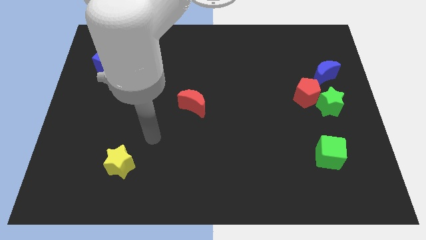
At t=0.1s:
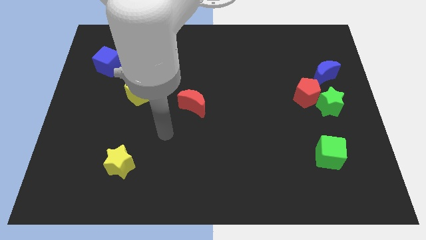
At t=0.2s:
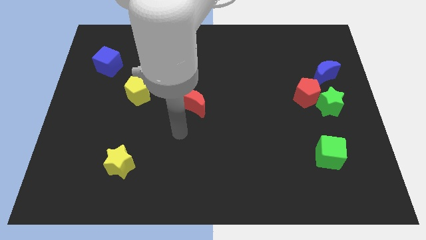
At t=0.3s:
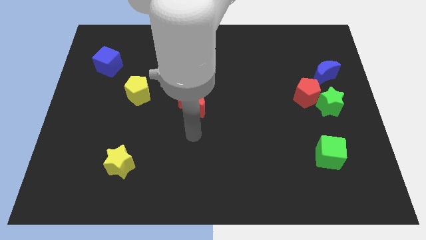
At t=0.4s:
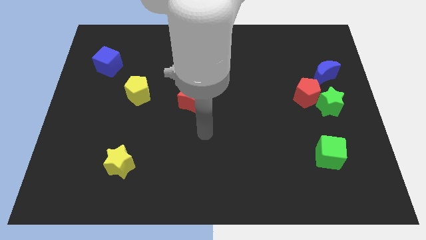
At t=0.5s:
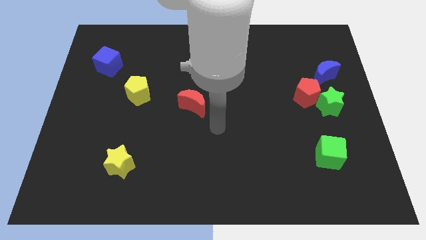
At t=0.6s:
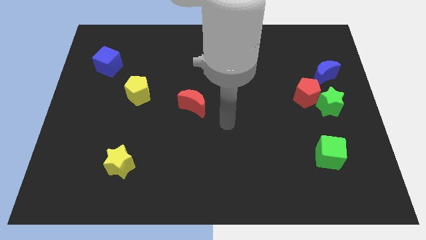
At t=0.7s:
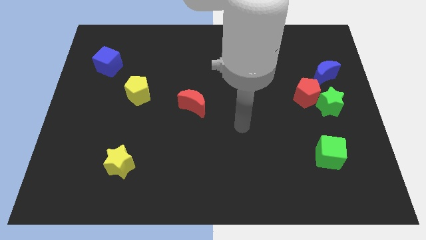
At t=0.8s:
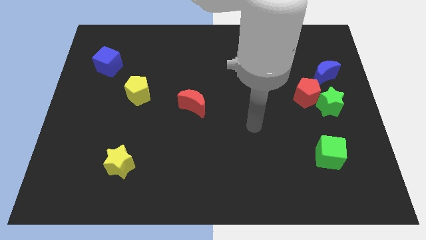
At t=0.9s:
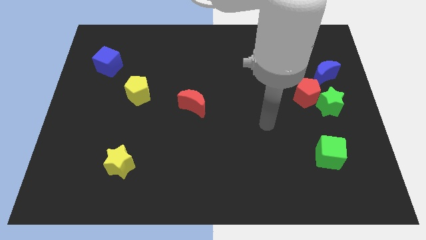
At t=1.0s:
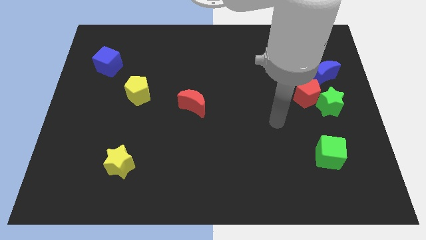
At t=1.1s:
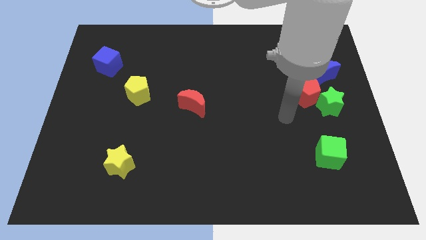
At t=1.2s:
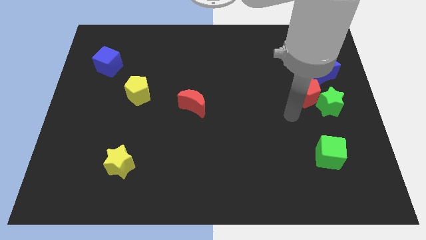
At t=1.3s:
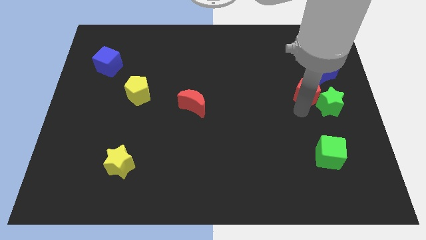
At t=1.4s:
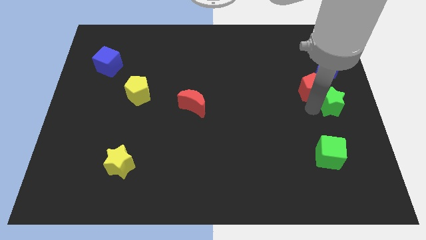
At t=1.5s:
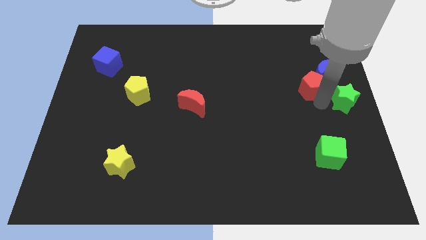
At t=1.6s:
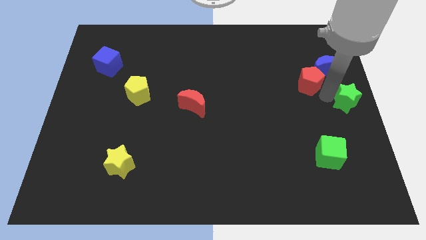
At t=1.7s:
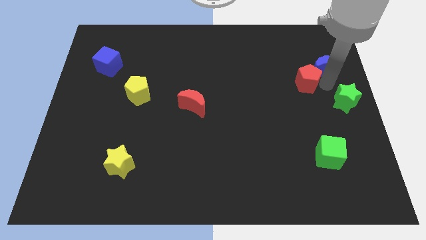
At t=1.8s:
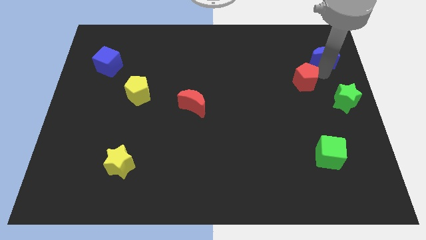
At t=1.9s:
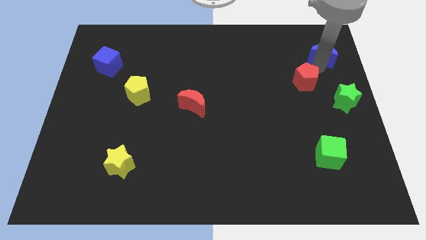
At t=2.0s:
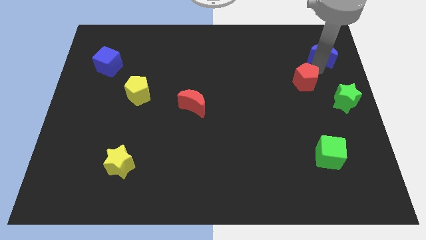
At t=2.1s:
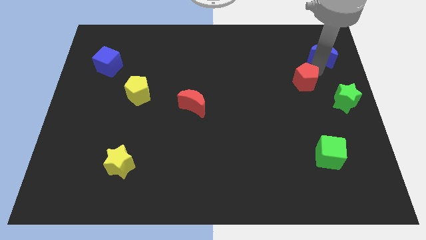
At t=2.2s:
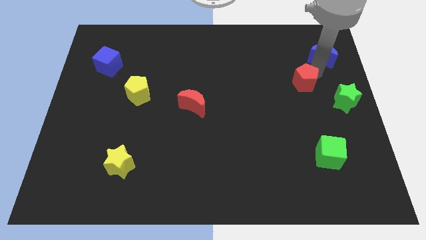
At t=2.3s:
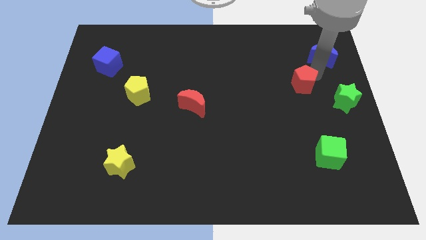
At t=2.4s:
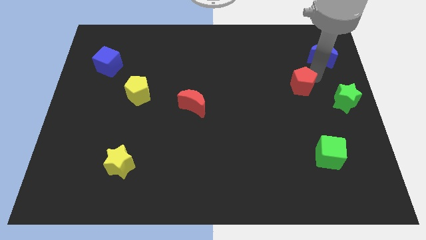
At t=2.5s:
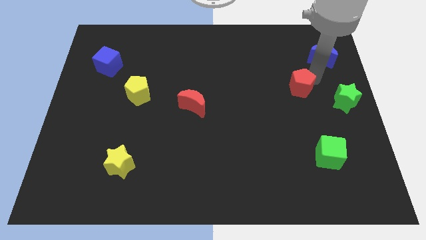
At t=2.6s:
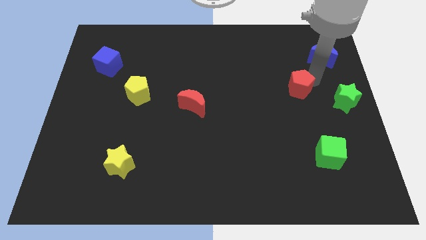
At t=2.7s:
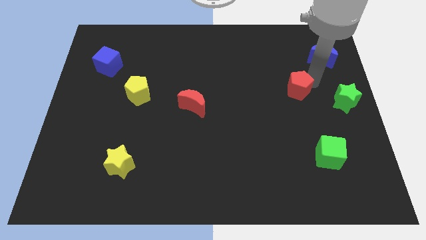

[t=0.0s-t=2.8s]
separate the red pentagon from the green star and blue moon

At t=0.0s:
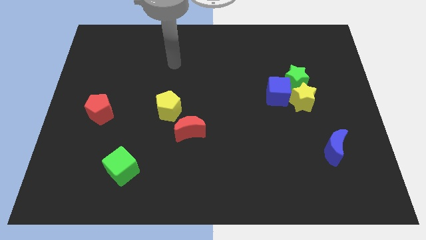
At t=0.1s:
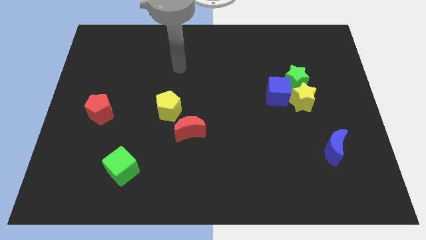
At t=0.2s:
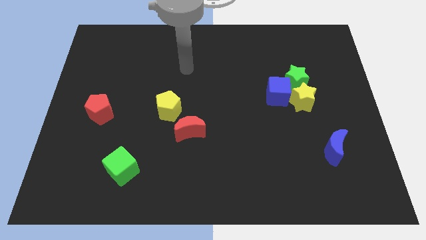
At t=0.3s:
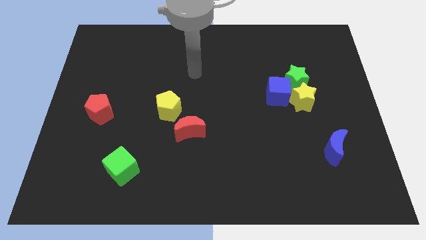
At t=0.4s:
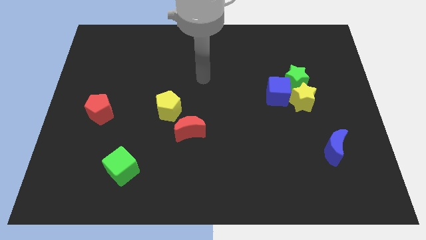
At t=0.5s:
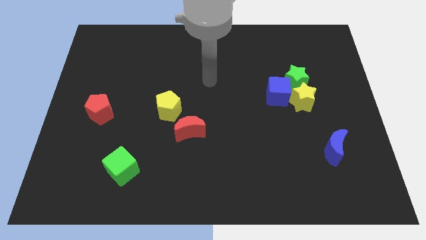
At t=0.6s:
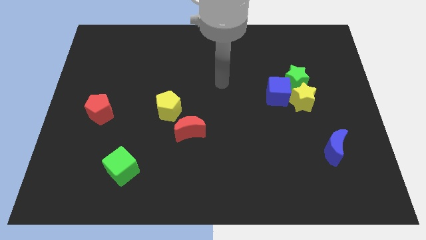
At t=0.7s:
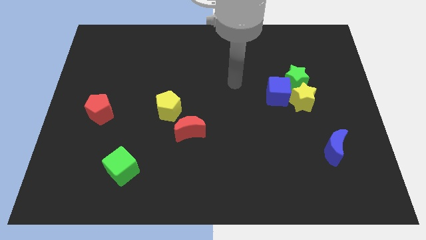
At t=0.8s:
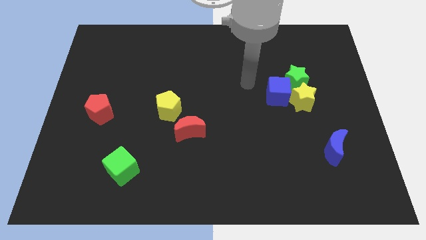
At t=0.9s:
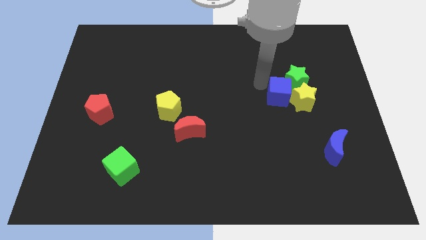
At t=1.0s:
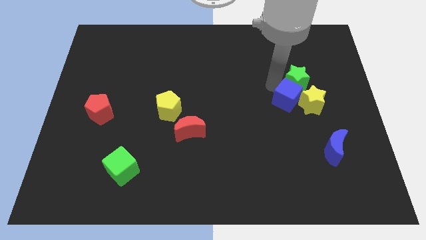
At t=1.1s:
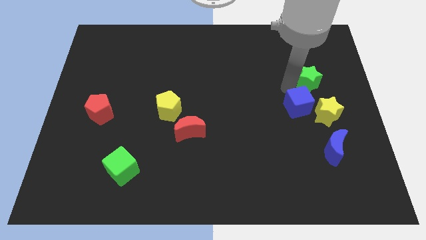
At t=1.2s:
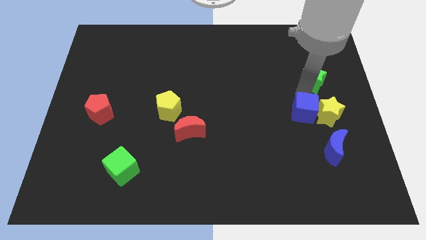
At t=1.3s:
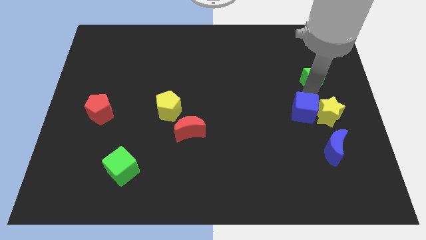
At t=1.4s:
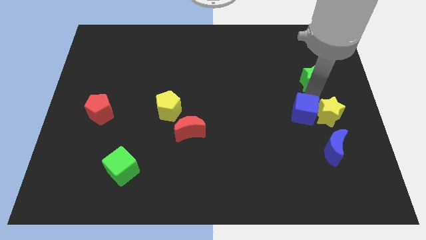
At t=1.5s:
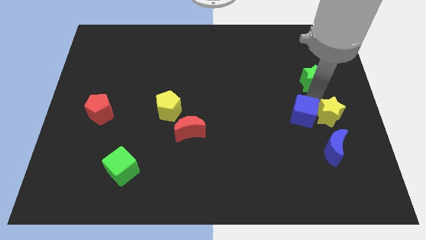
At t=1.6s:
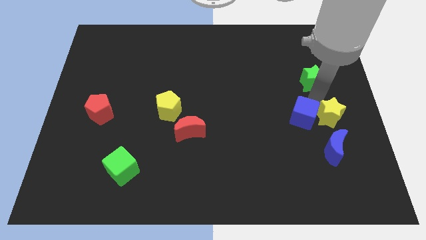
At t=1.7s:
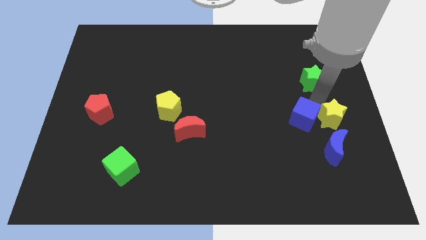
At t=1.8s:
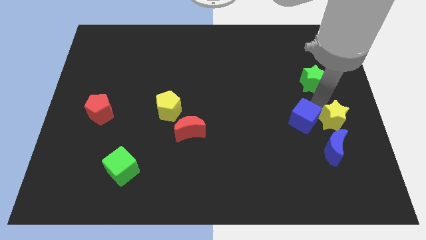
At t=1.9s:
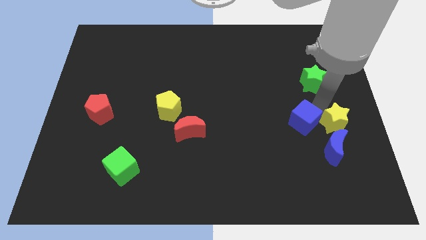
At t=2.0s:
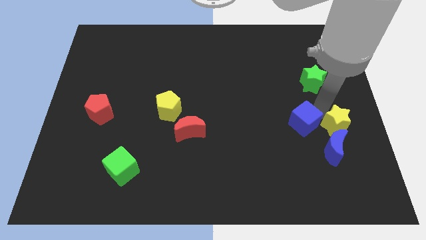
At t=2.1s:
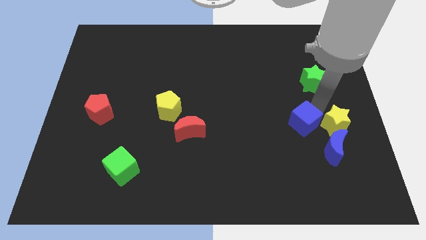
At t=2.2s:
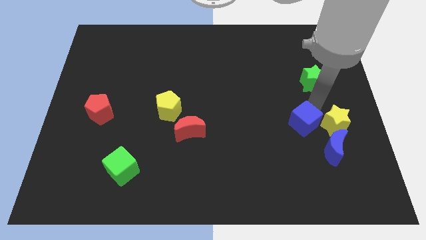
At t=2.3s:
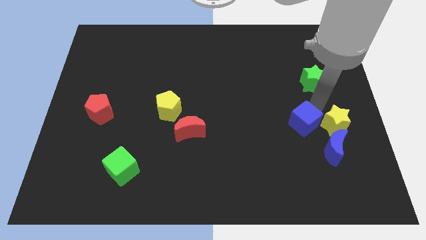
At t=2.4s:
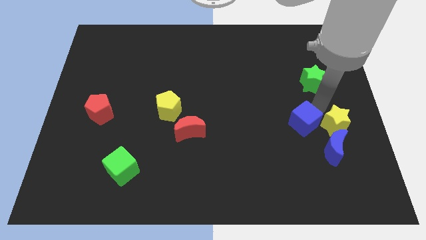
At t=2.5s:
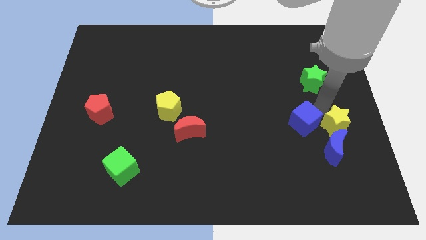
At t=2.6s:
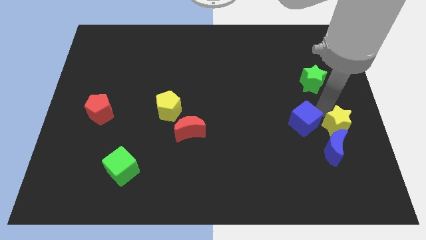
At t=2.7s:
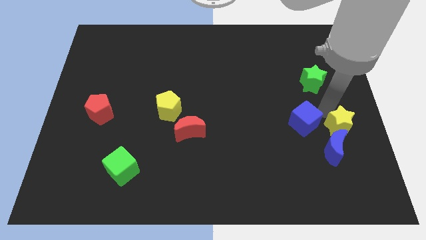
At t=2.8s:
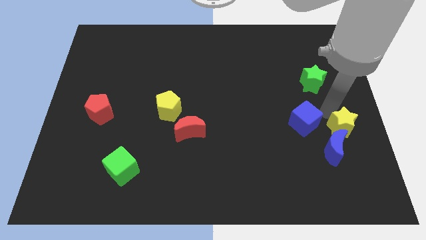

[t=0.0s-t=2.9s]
move the yellow star away from the blue cube and green star

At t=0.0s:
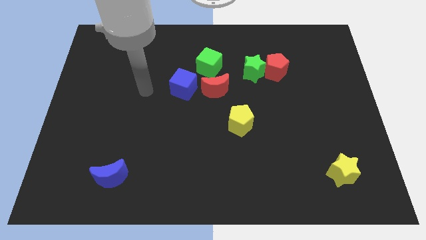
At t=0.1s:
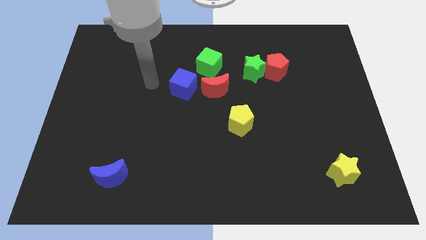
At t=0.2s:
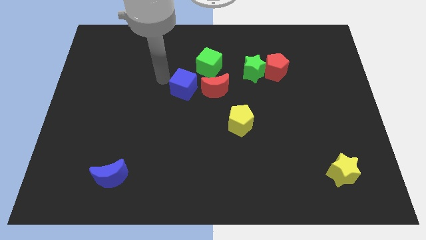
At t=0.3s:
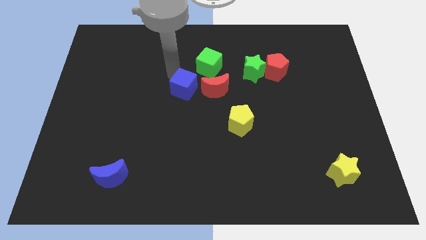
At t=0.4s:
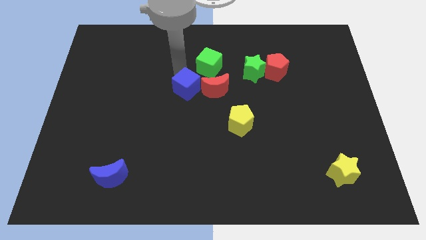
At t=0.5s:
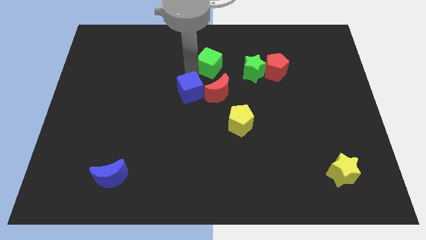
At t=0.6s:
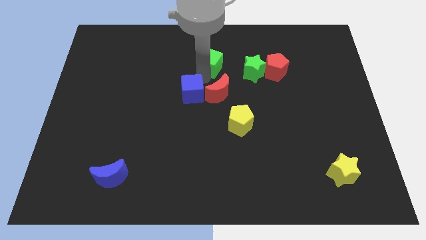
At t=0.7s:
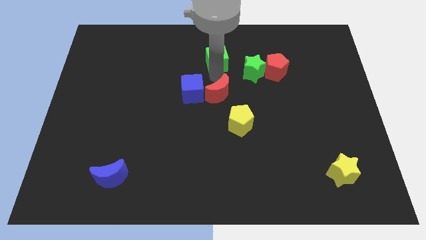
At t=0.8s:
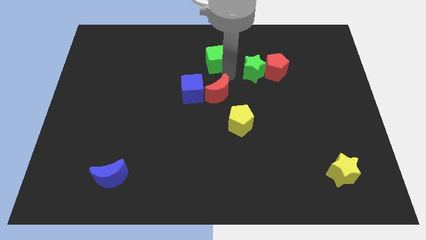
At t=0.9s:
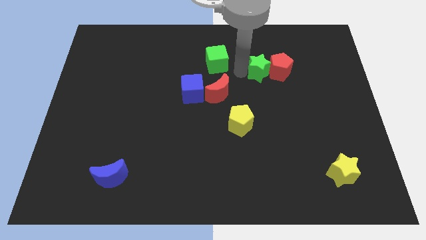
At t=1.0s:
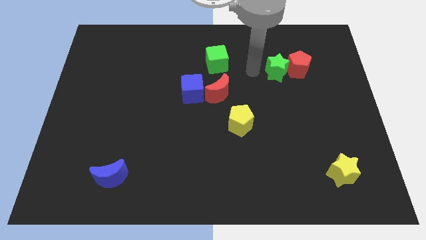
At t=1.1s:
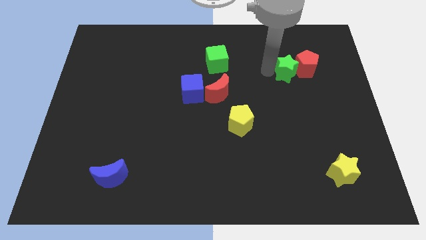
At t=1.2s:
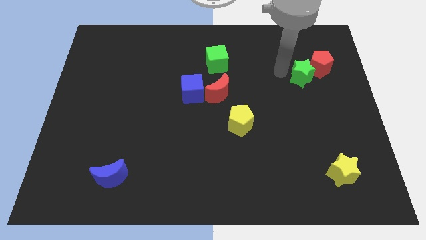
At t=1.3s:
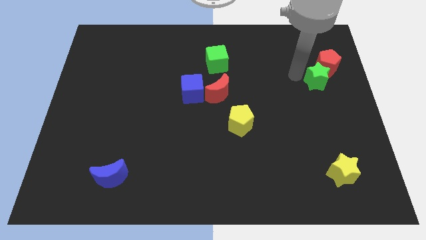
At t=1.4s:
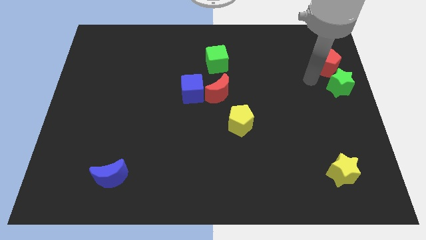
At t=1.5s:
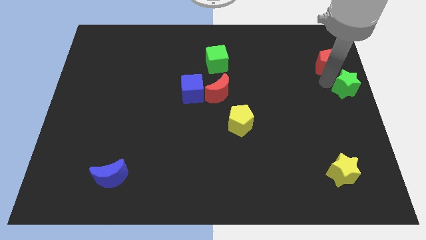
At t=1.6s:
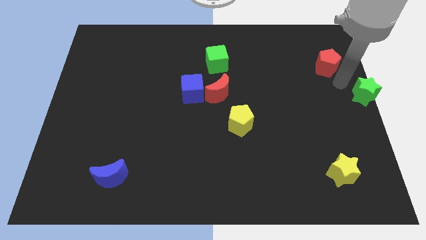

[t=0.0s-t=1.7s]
pull the red pentagon apart from the green star

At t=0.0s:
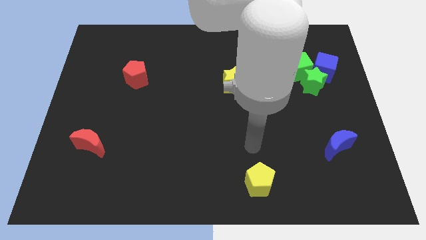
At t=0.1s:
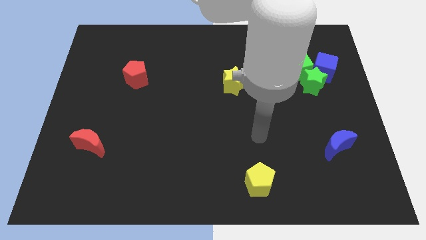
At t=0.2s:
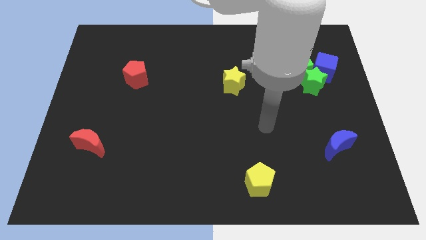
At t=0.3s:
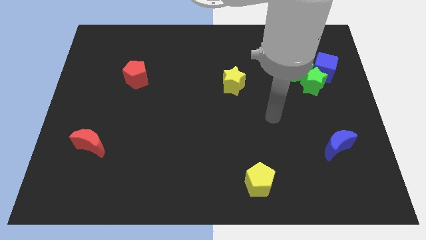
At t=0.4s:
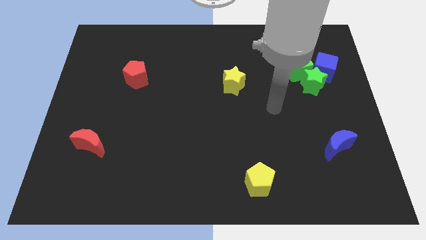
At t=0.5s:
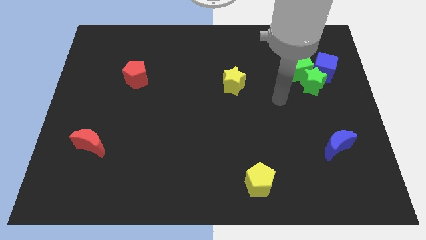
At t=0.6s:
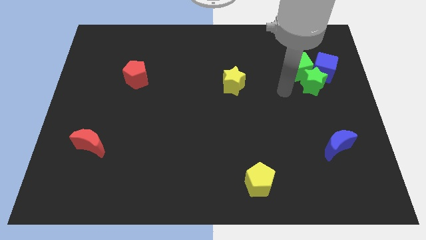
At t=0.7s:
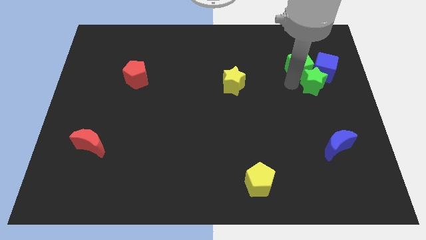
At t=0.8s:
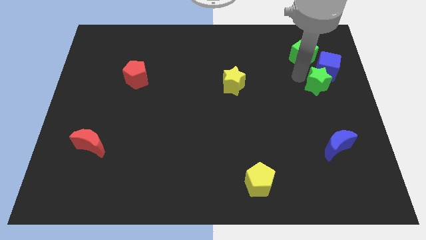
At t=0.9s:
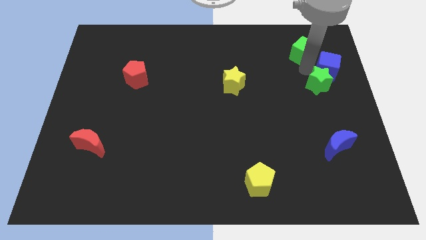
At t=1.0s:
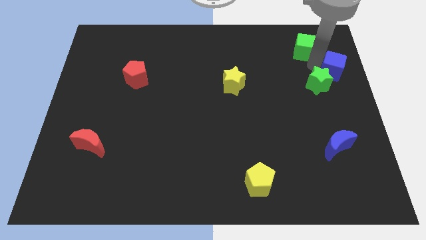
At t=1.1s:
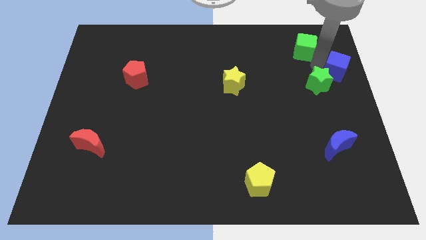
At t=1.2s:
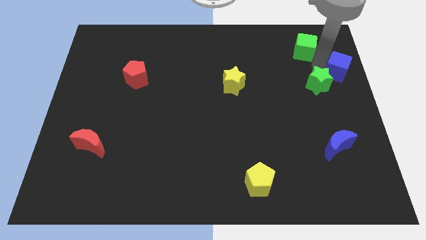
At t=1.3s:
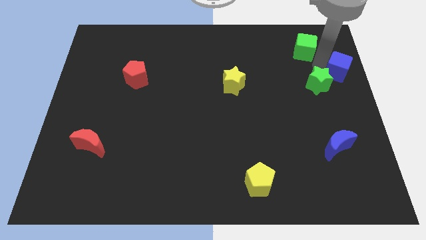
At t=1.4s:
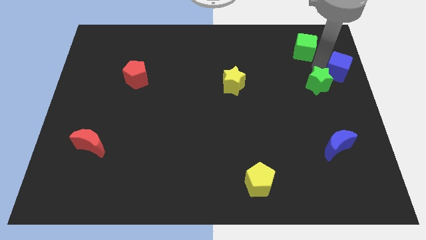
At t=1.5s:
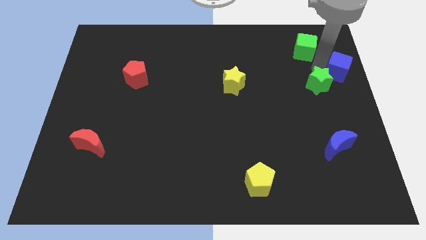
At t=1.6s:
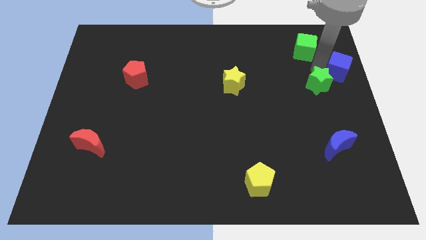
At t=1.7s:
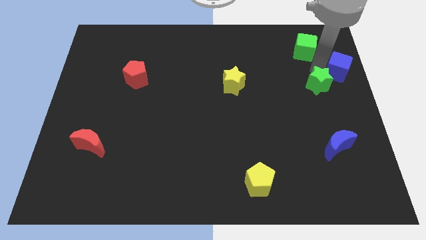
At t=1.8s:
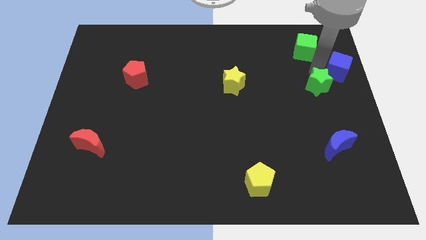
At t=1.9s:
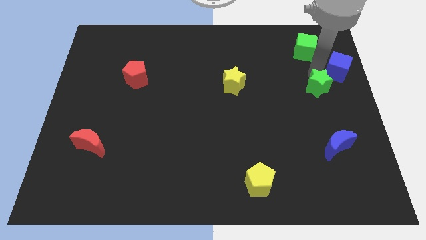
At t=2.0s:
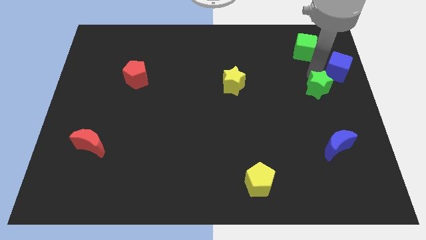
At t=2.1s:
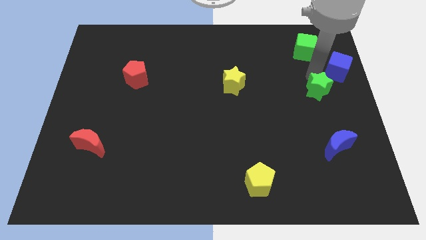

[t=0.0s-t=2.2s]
separate the green star from the green cube and blue cube
